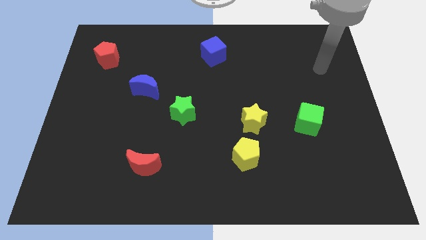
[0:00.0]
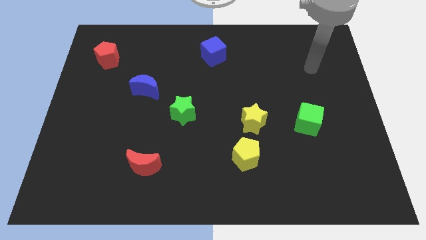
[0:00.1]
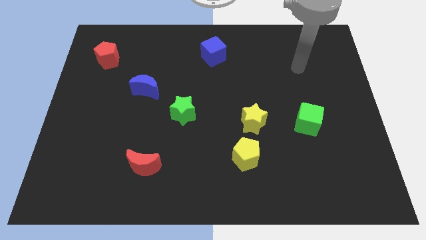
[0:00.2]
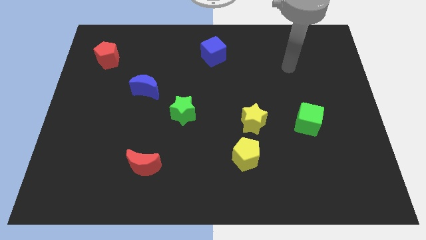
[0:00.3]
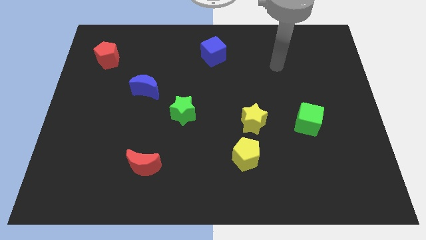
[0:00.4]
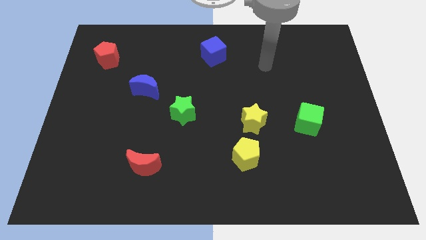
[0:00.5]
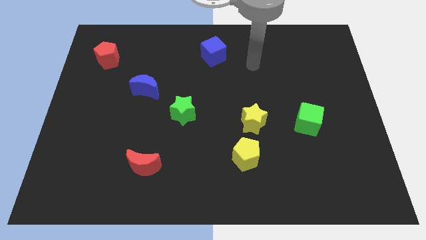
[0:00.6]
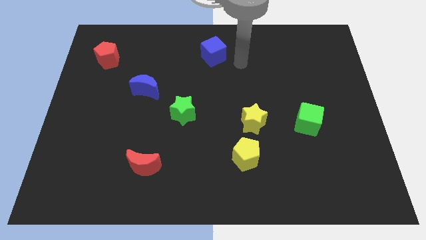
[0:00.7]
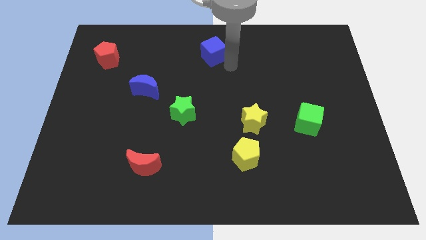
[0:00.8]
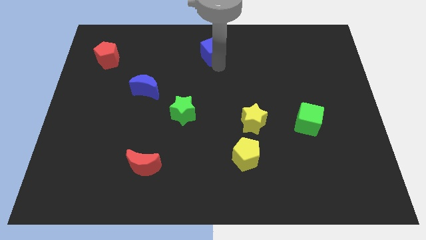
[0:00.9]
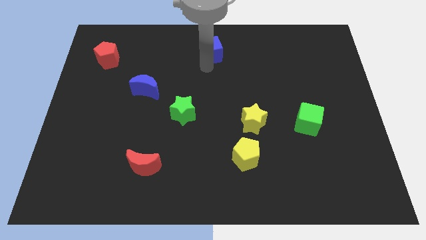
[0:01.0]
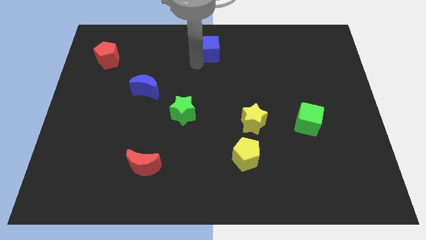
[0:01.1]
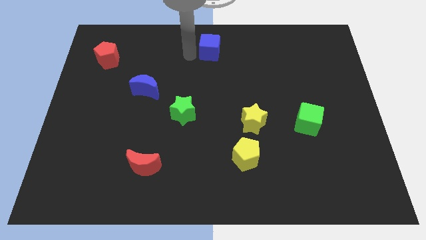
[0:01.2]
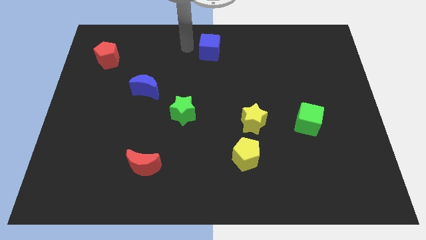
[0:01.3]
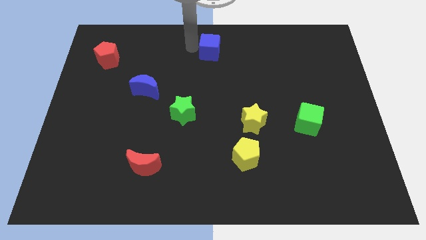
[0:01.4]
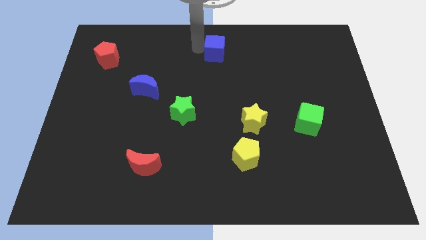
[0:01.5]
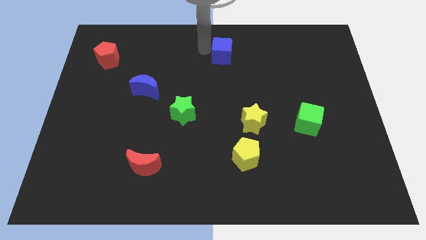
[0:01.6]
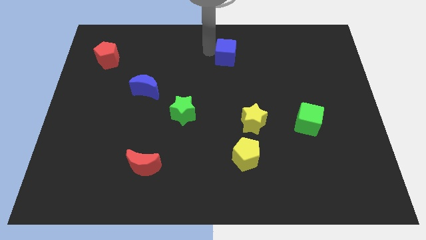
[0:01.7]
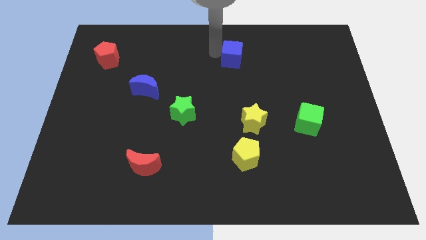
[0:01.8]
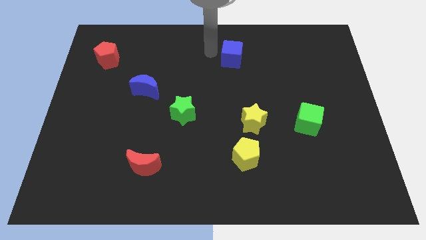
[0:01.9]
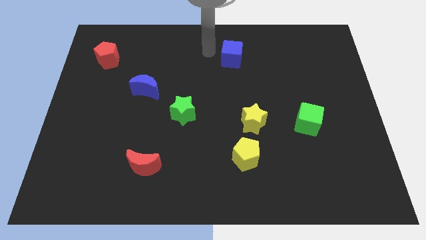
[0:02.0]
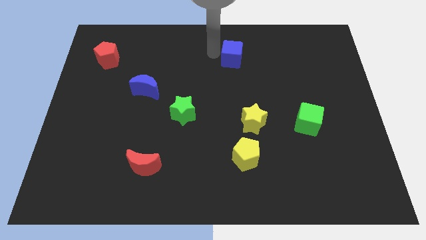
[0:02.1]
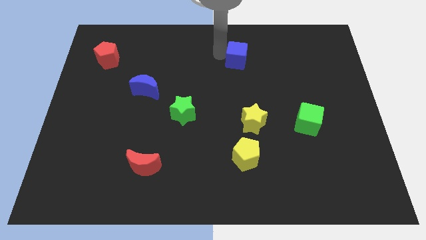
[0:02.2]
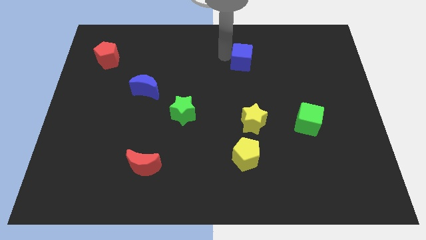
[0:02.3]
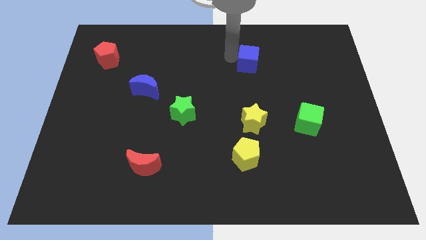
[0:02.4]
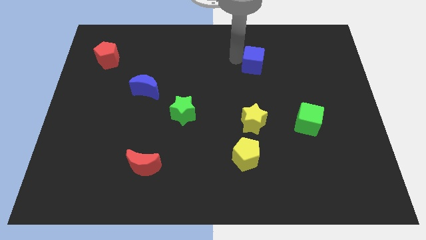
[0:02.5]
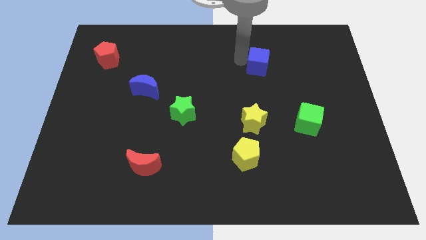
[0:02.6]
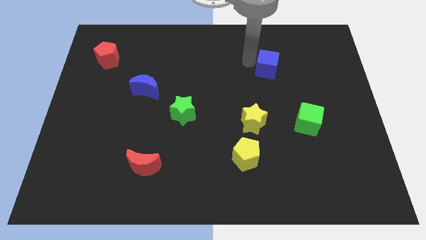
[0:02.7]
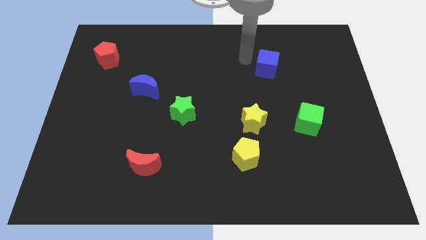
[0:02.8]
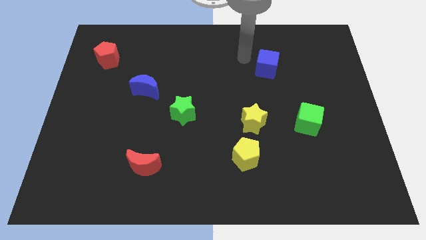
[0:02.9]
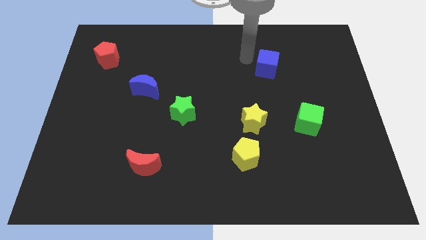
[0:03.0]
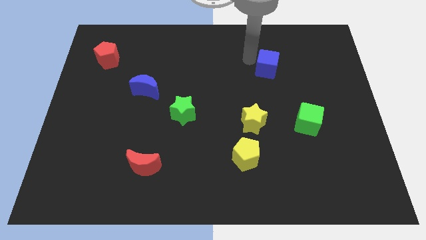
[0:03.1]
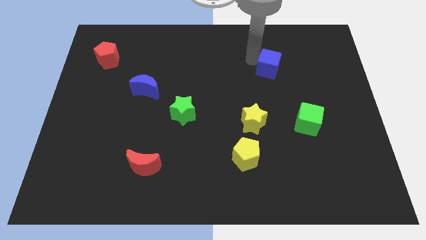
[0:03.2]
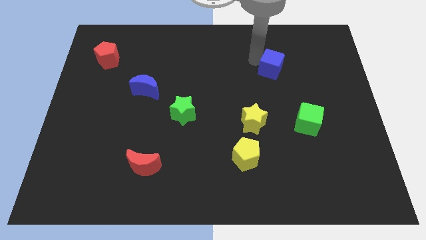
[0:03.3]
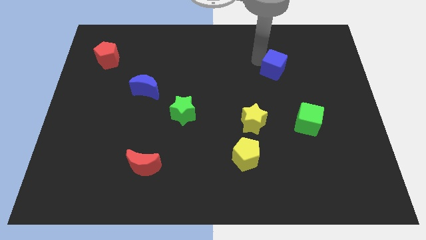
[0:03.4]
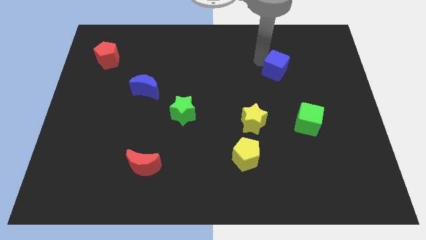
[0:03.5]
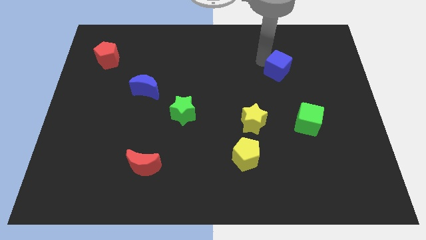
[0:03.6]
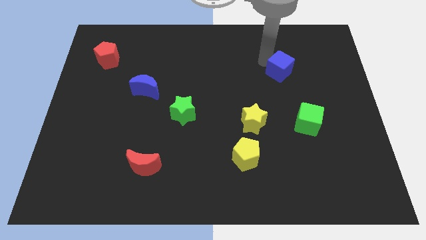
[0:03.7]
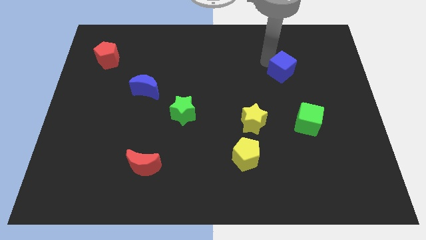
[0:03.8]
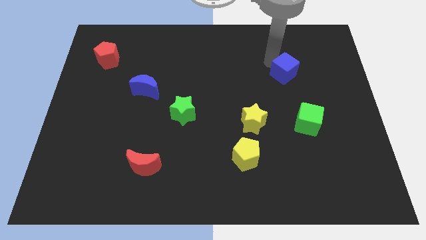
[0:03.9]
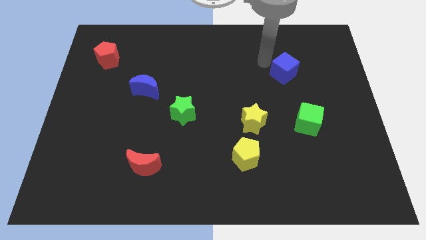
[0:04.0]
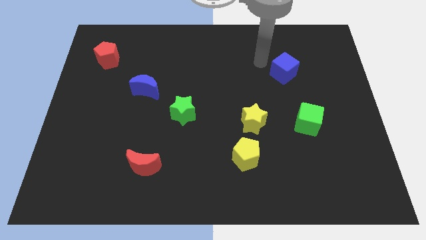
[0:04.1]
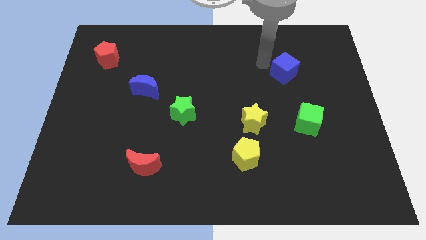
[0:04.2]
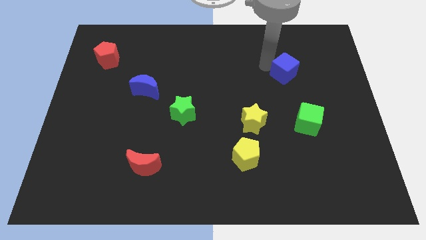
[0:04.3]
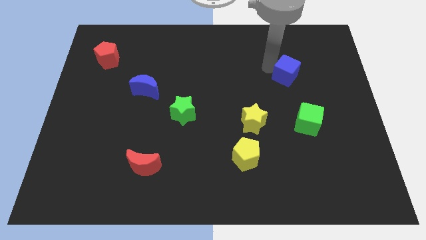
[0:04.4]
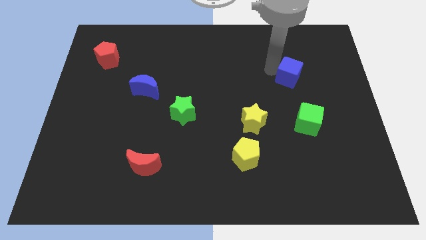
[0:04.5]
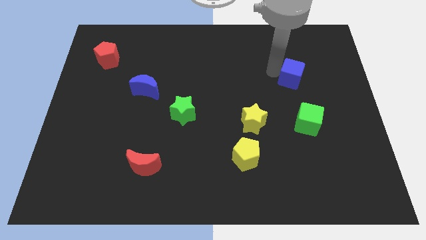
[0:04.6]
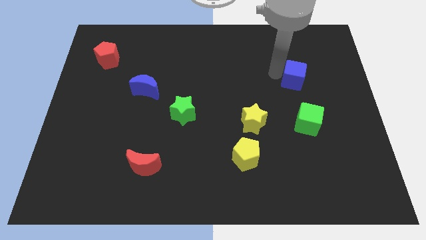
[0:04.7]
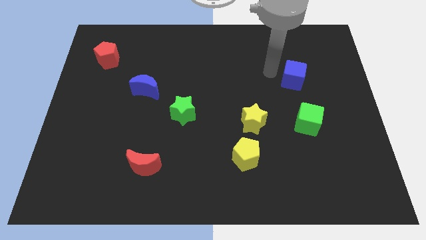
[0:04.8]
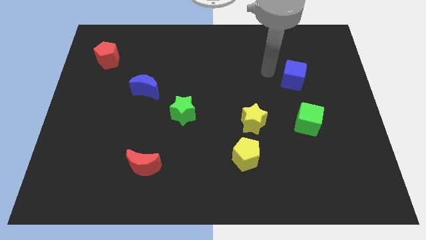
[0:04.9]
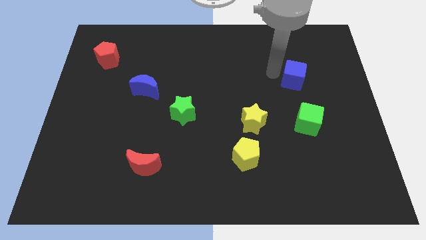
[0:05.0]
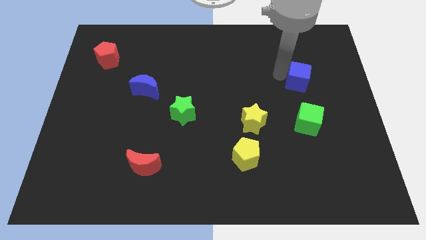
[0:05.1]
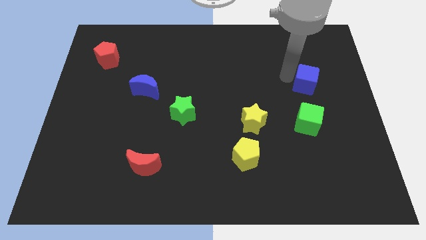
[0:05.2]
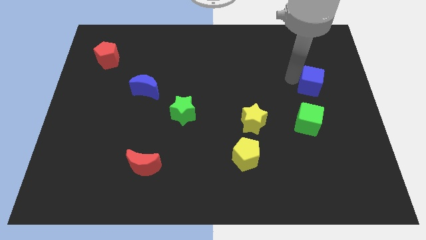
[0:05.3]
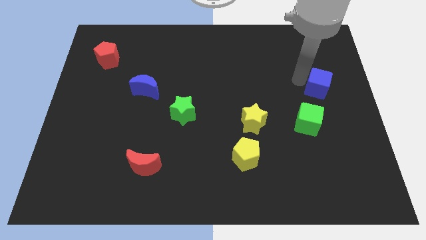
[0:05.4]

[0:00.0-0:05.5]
slide the blue cube to the center right
